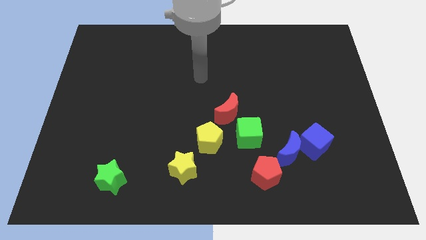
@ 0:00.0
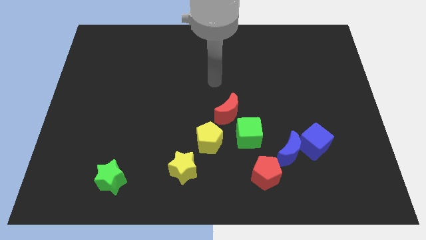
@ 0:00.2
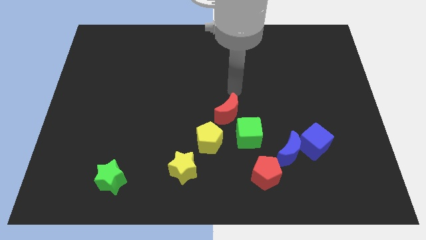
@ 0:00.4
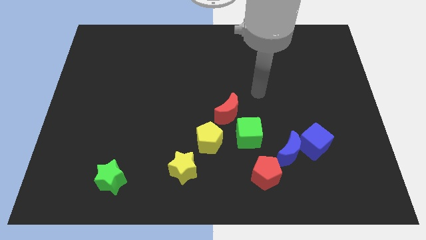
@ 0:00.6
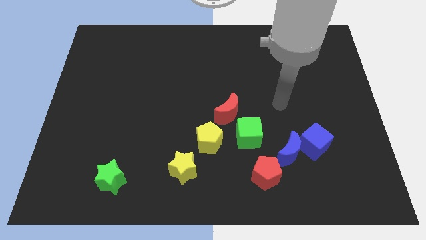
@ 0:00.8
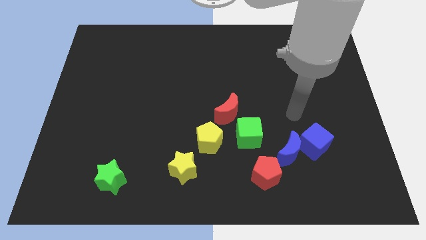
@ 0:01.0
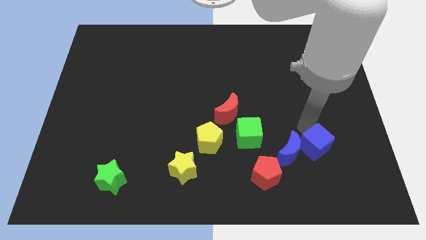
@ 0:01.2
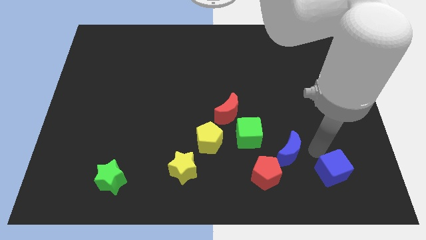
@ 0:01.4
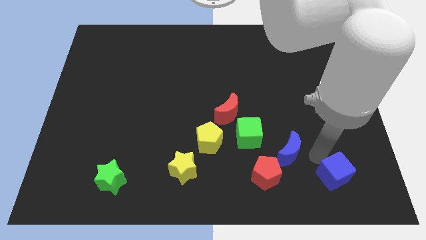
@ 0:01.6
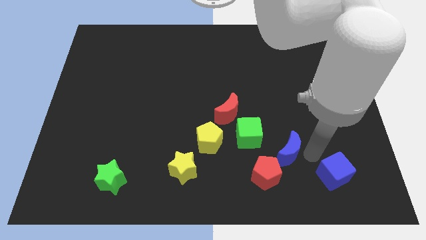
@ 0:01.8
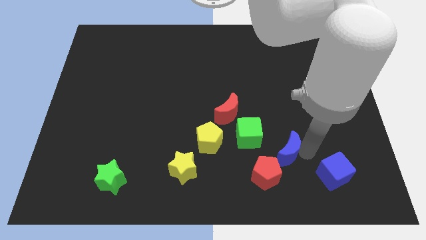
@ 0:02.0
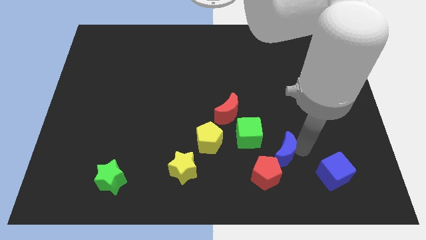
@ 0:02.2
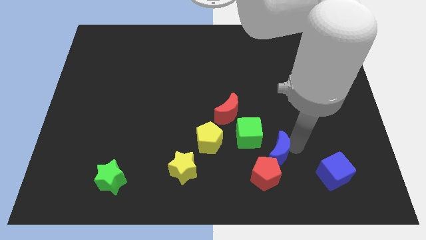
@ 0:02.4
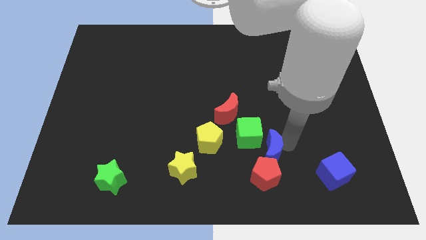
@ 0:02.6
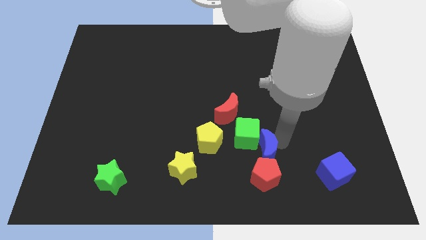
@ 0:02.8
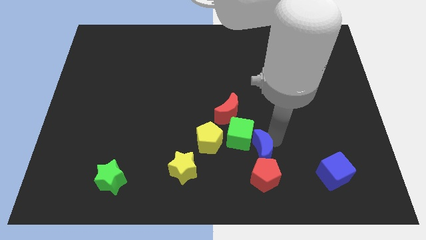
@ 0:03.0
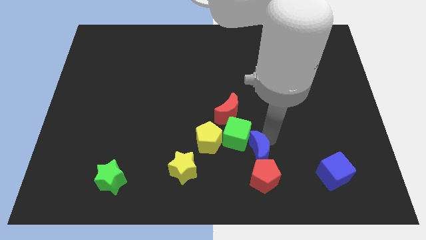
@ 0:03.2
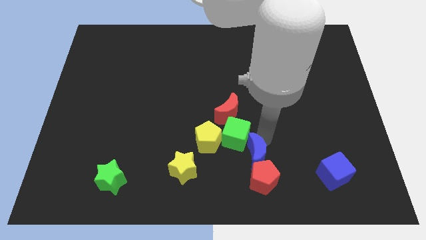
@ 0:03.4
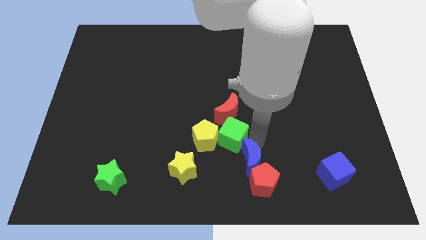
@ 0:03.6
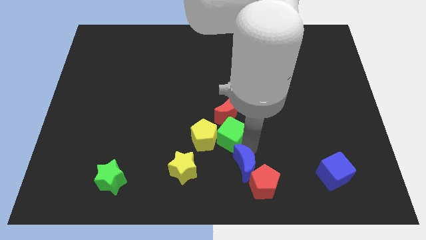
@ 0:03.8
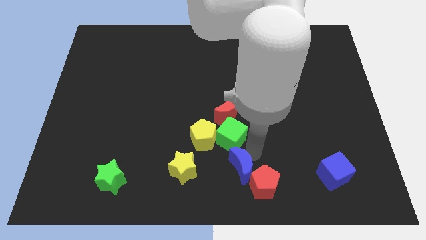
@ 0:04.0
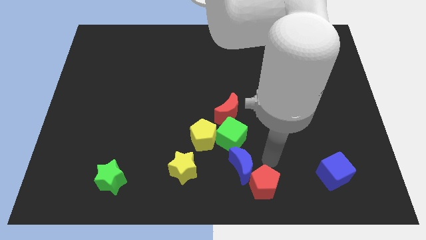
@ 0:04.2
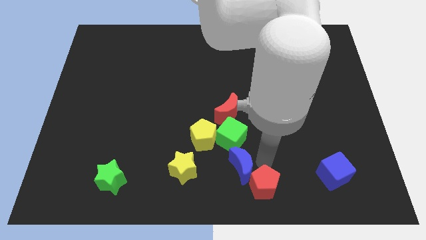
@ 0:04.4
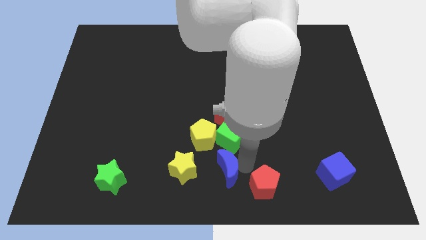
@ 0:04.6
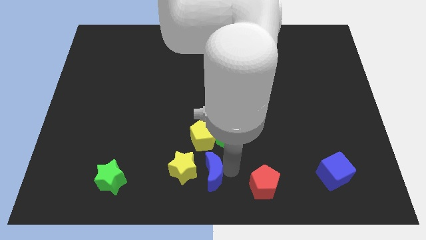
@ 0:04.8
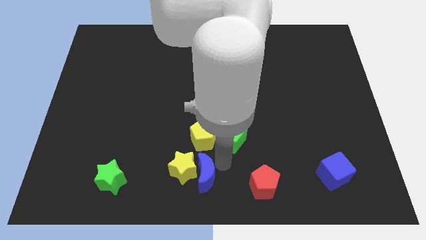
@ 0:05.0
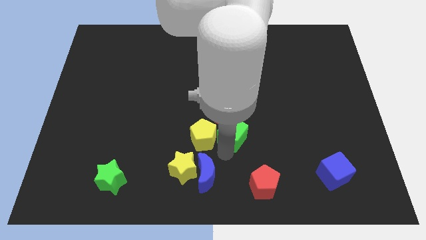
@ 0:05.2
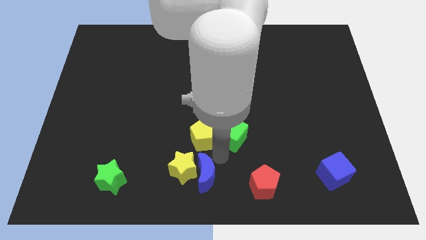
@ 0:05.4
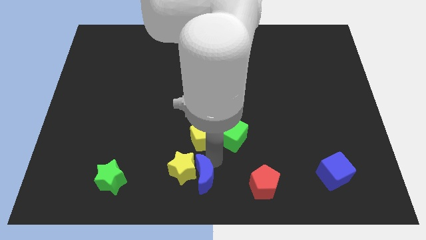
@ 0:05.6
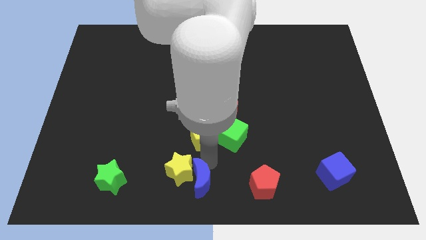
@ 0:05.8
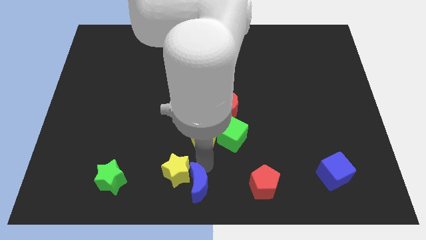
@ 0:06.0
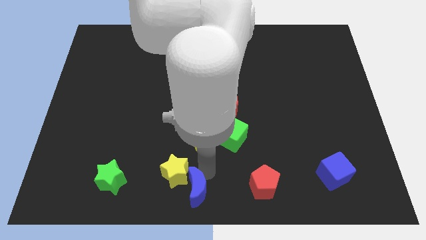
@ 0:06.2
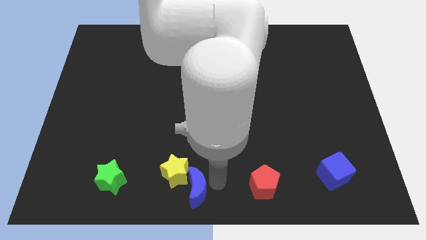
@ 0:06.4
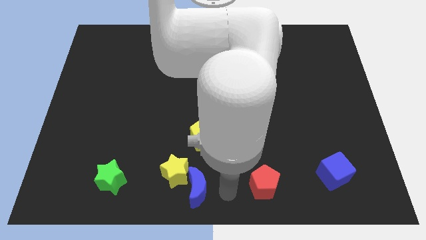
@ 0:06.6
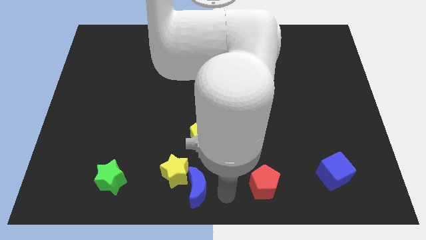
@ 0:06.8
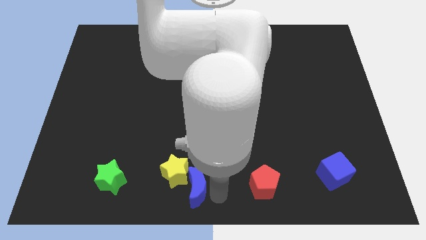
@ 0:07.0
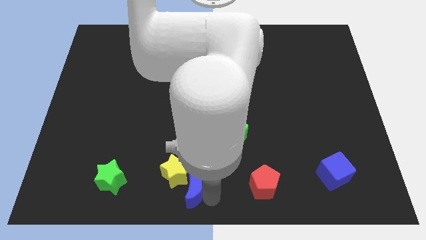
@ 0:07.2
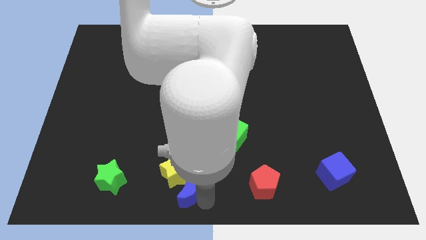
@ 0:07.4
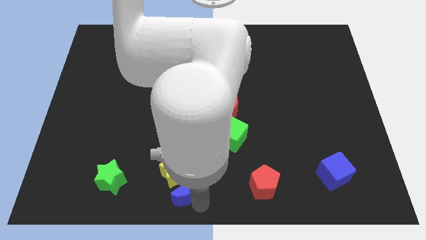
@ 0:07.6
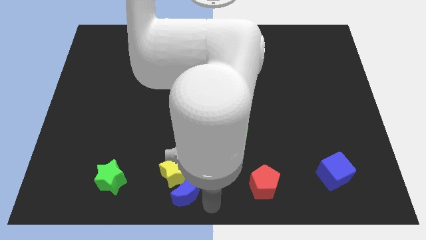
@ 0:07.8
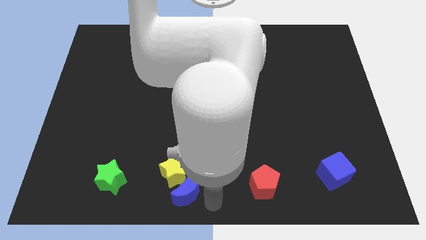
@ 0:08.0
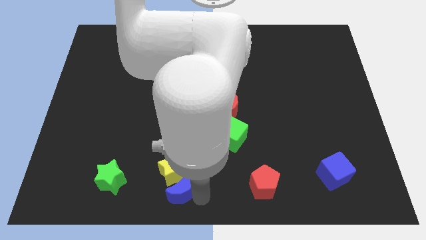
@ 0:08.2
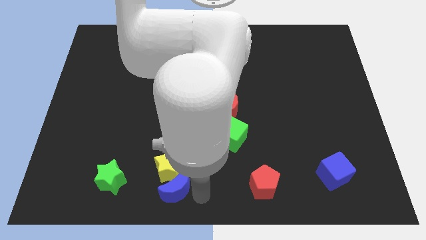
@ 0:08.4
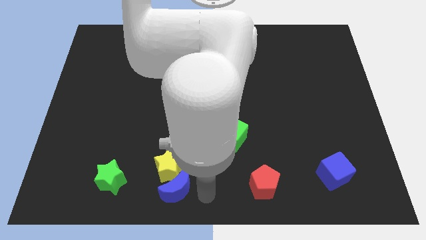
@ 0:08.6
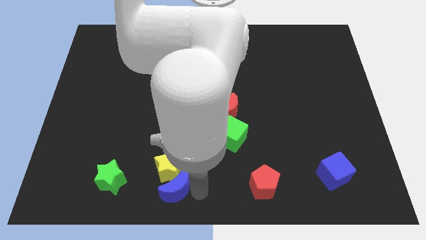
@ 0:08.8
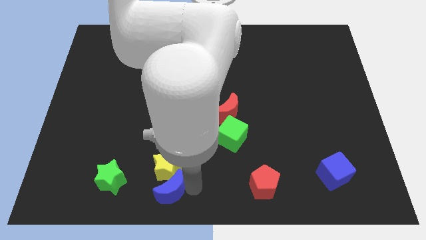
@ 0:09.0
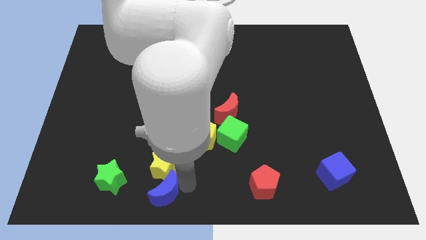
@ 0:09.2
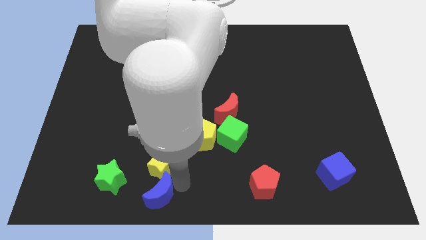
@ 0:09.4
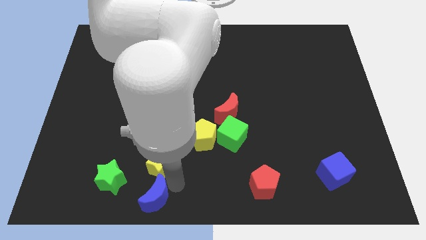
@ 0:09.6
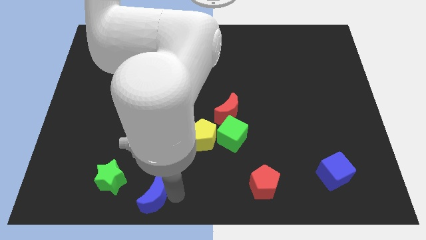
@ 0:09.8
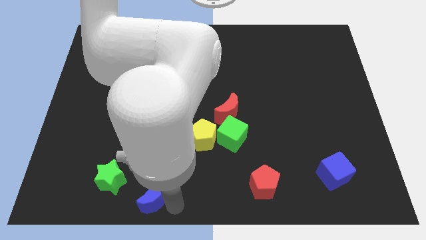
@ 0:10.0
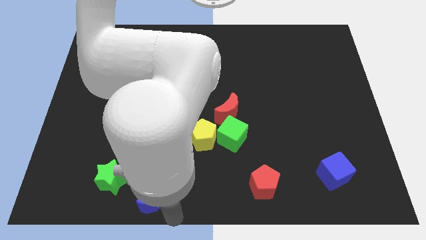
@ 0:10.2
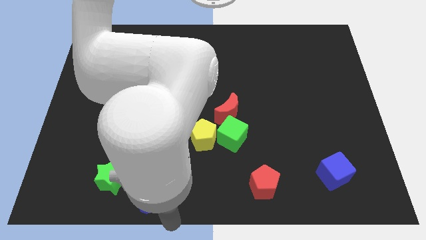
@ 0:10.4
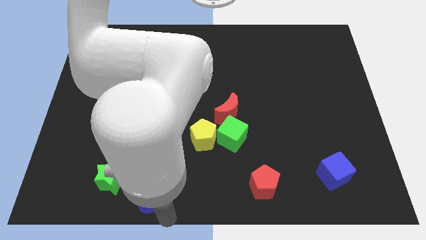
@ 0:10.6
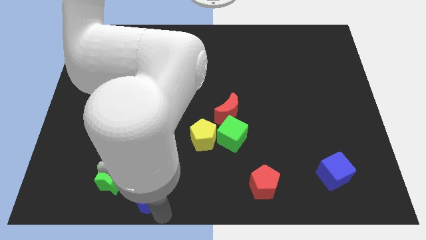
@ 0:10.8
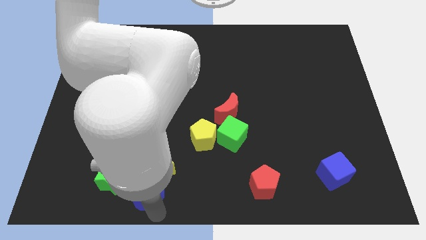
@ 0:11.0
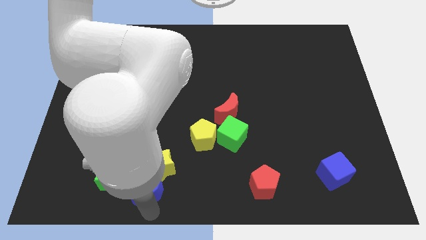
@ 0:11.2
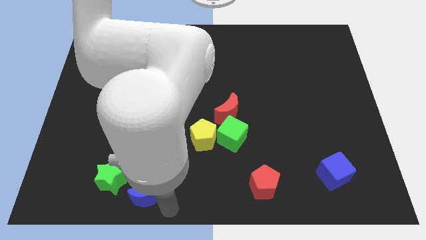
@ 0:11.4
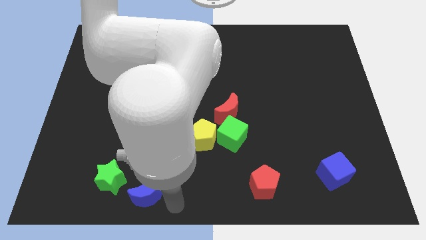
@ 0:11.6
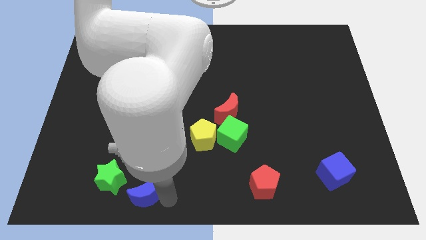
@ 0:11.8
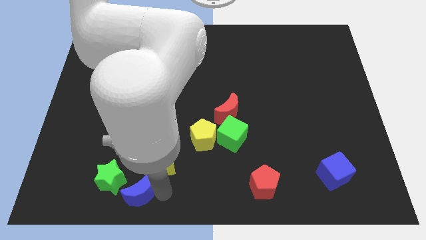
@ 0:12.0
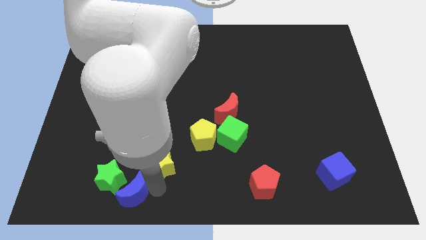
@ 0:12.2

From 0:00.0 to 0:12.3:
move the blue moon to the green star
